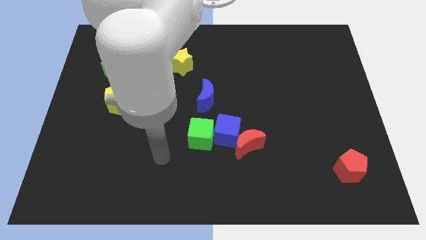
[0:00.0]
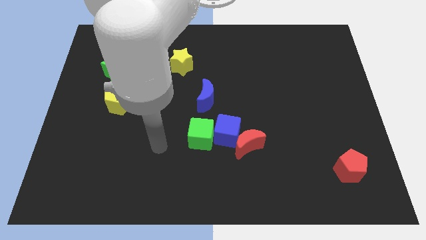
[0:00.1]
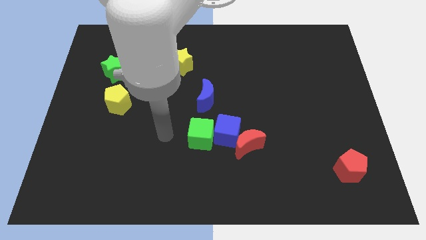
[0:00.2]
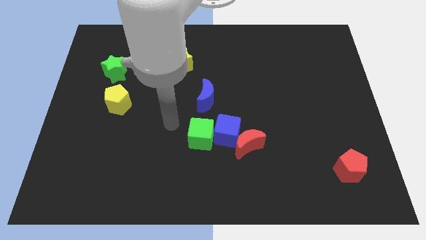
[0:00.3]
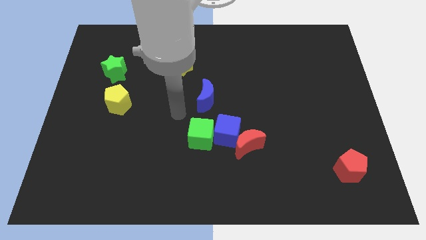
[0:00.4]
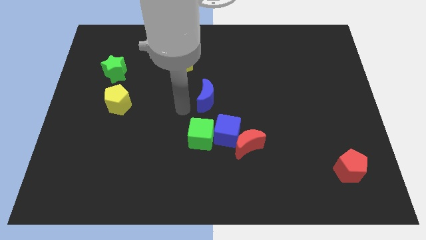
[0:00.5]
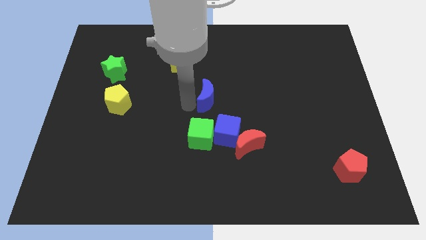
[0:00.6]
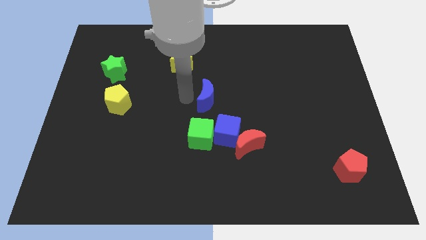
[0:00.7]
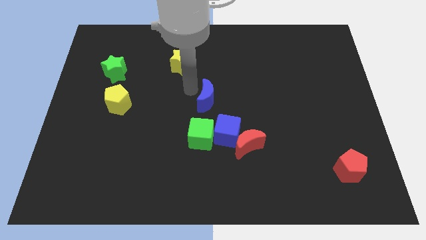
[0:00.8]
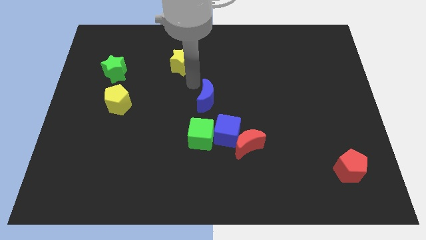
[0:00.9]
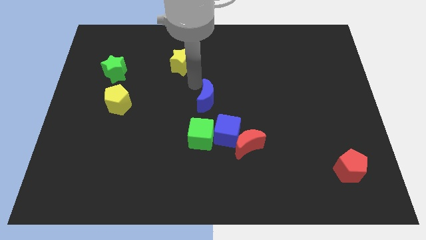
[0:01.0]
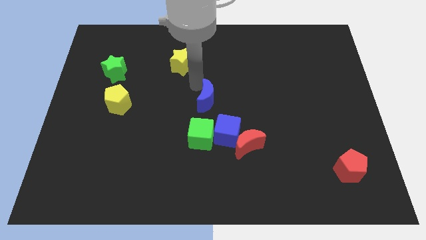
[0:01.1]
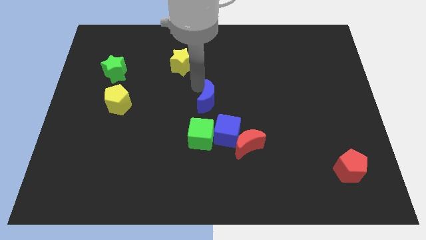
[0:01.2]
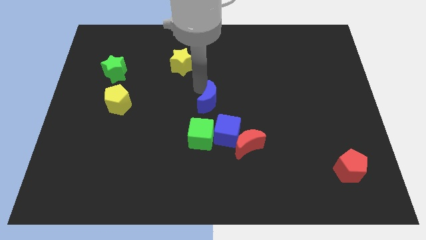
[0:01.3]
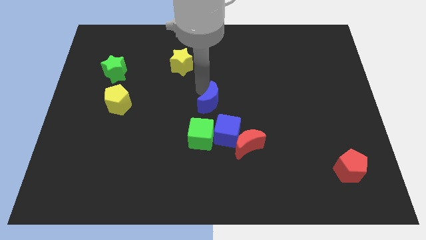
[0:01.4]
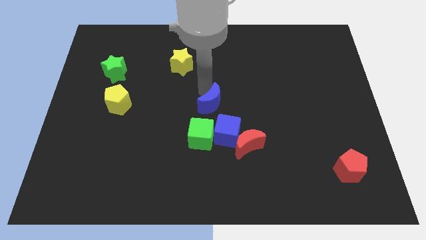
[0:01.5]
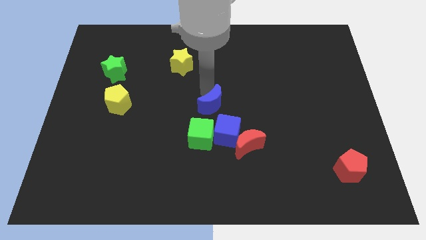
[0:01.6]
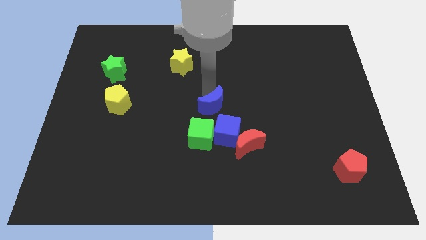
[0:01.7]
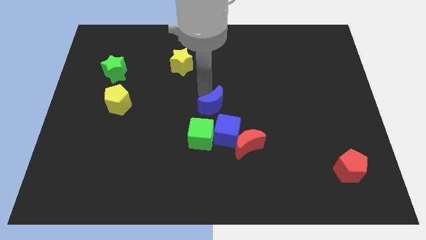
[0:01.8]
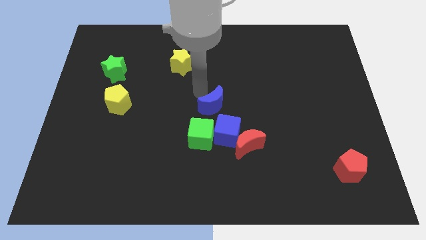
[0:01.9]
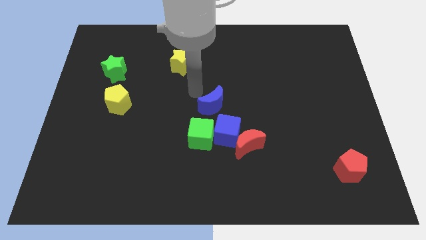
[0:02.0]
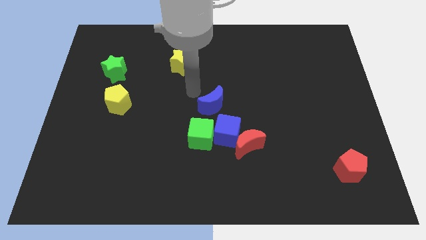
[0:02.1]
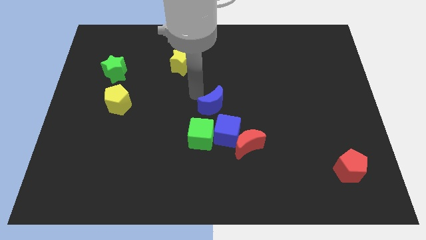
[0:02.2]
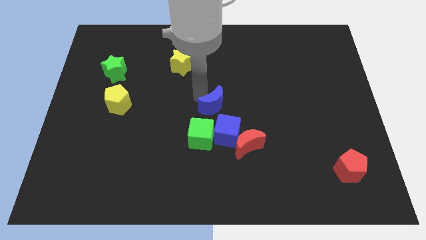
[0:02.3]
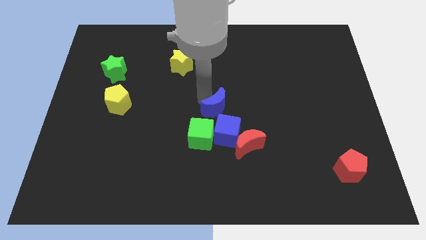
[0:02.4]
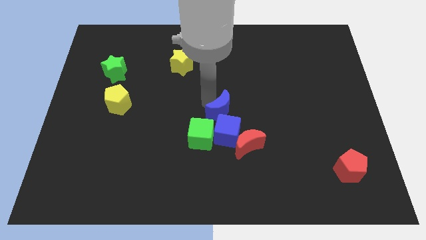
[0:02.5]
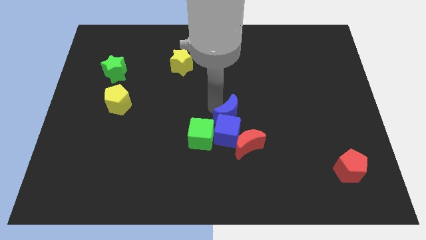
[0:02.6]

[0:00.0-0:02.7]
push the blue moon downwards and right somewhat

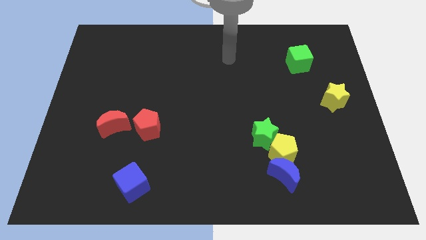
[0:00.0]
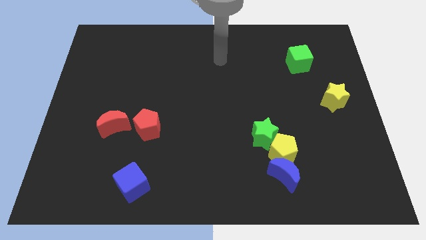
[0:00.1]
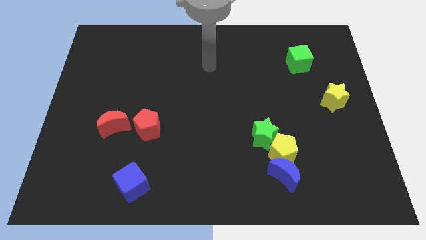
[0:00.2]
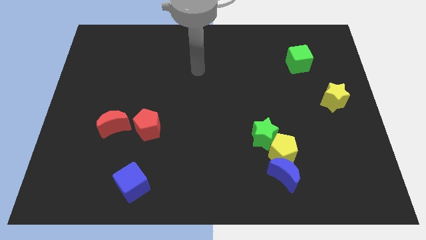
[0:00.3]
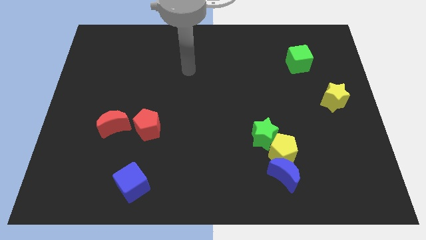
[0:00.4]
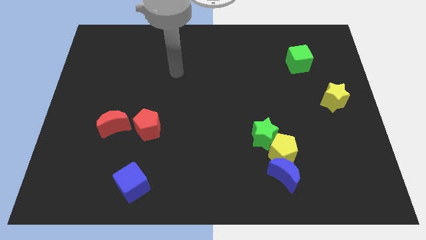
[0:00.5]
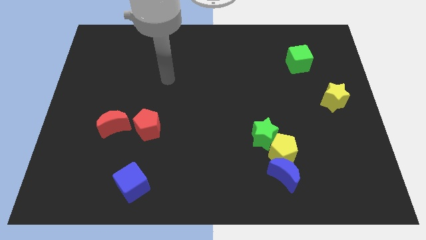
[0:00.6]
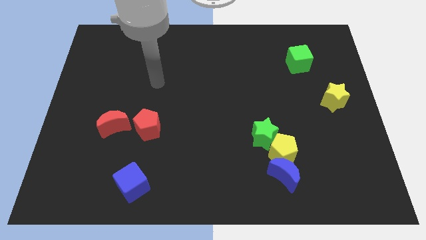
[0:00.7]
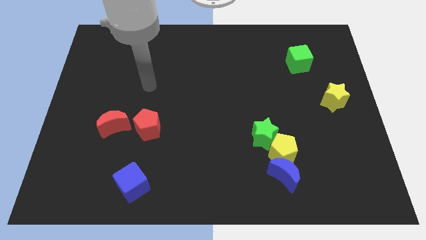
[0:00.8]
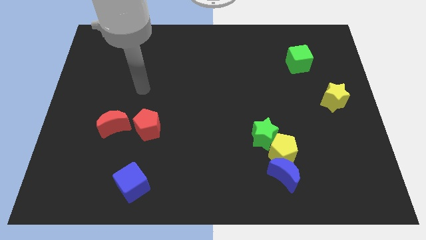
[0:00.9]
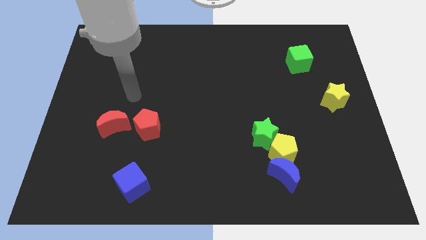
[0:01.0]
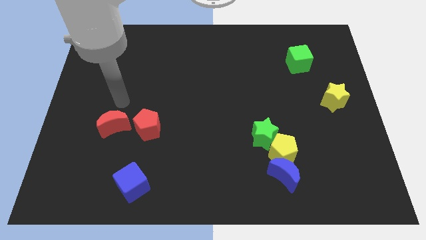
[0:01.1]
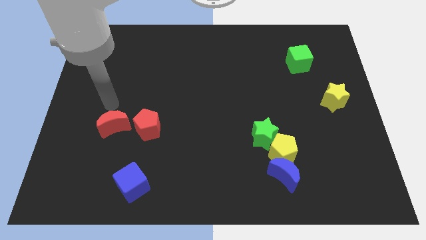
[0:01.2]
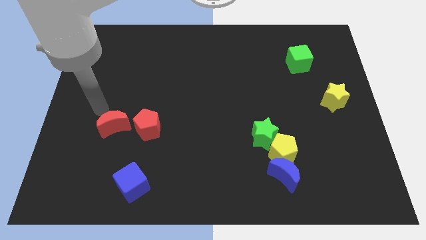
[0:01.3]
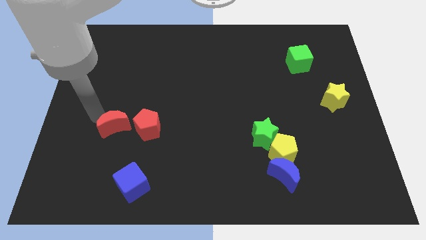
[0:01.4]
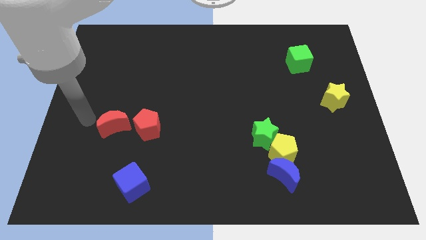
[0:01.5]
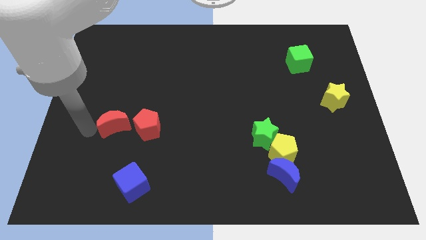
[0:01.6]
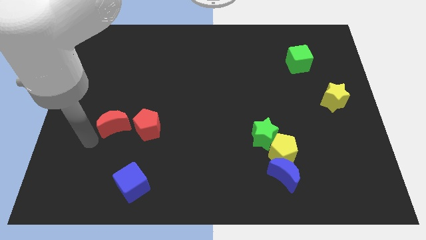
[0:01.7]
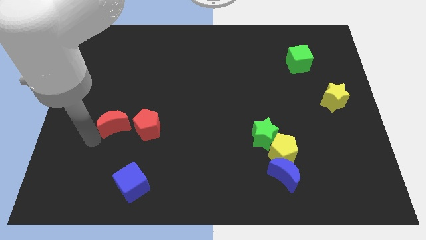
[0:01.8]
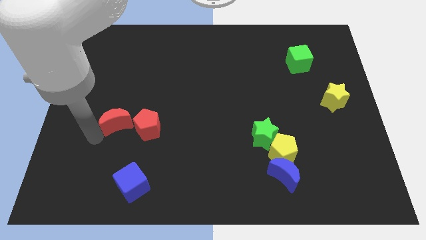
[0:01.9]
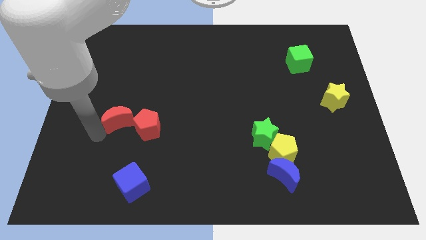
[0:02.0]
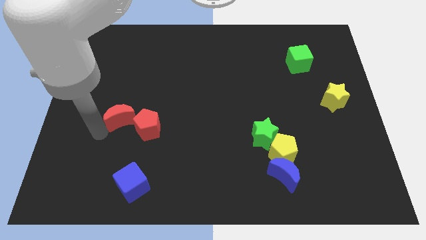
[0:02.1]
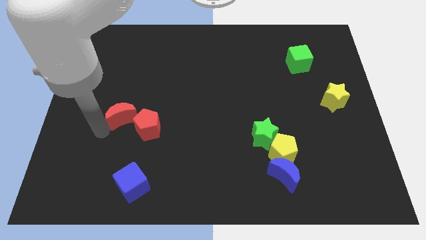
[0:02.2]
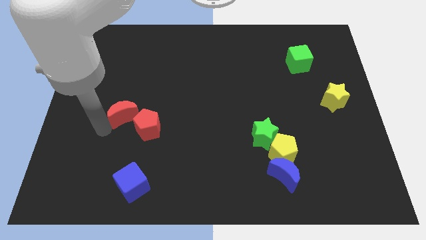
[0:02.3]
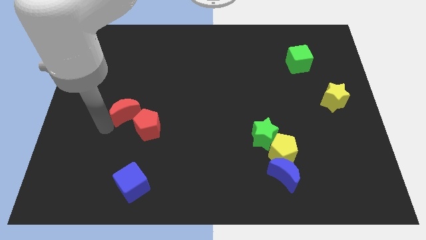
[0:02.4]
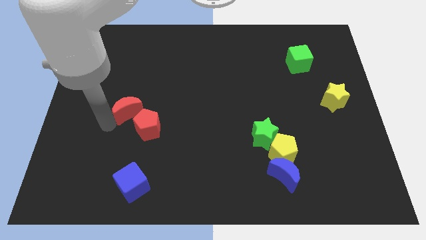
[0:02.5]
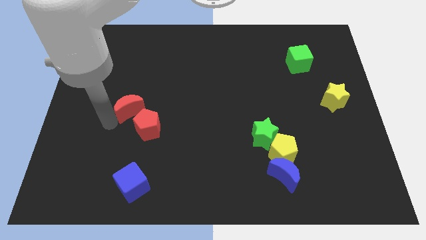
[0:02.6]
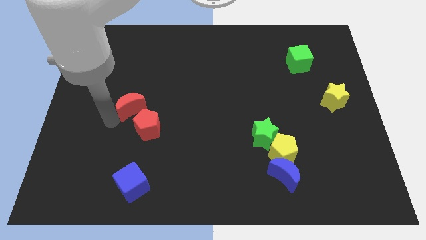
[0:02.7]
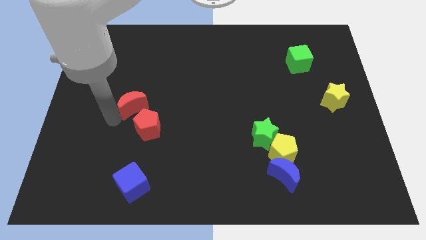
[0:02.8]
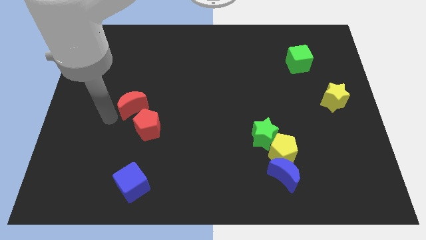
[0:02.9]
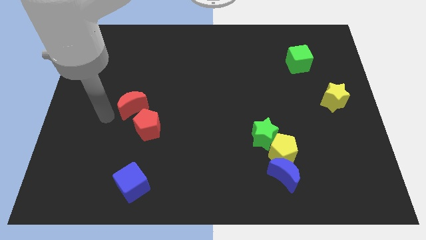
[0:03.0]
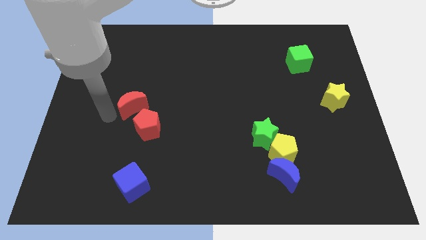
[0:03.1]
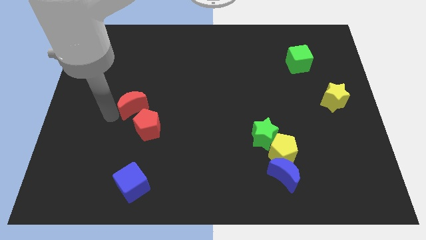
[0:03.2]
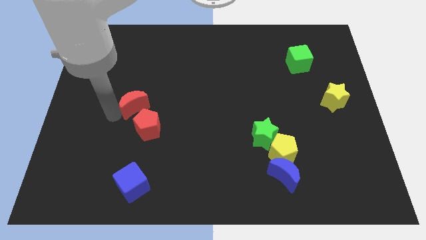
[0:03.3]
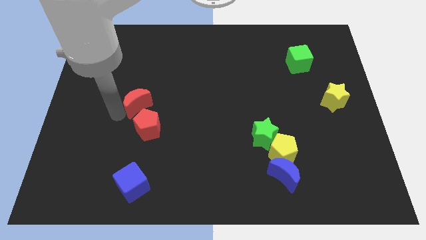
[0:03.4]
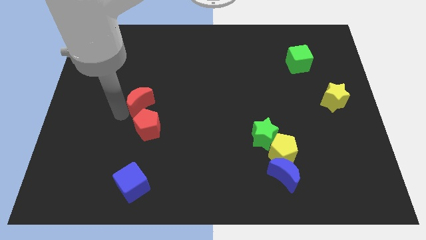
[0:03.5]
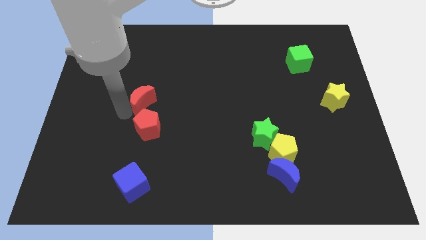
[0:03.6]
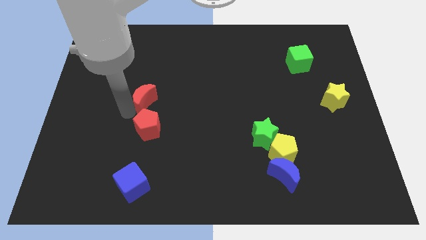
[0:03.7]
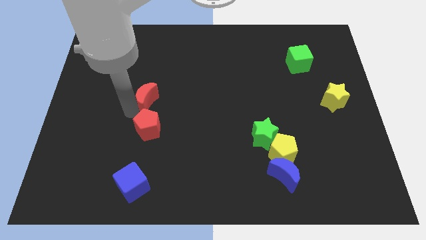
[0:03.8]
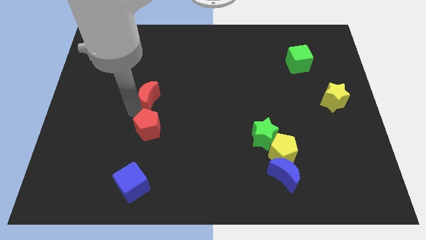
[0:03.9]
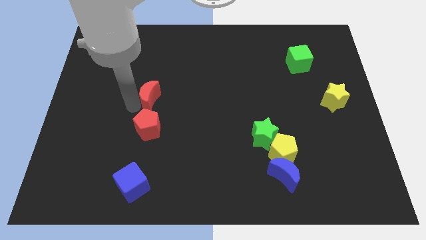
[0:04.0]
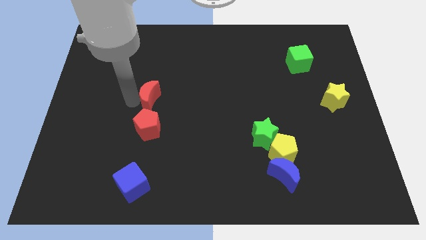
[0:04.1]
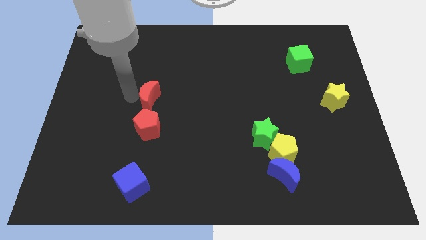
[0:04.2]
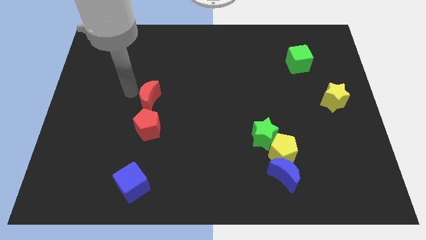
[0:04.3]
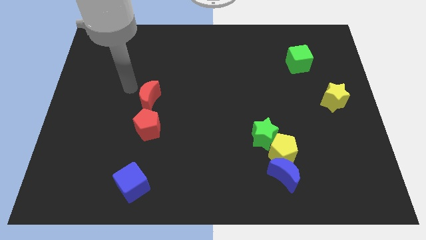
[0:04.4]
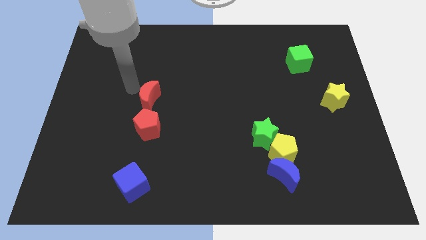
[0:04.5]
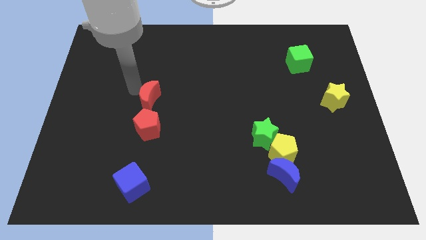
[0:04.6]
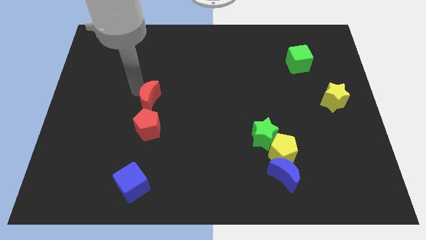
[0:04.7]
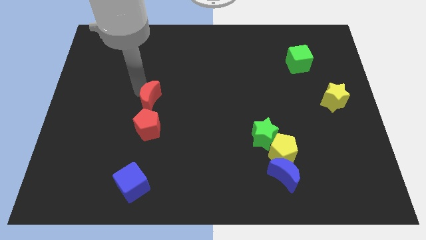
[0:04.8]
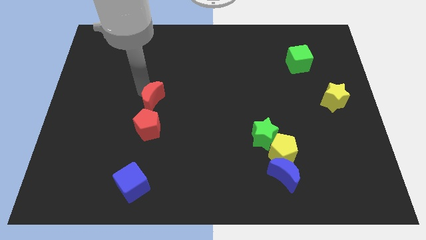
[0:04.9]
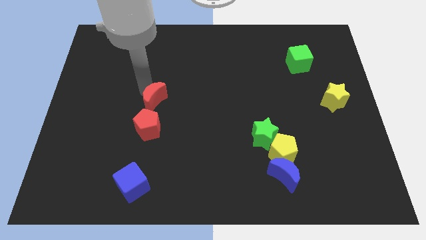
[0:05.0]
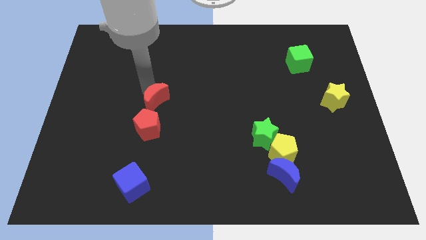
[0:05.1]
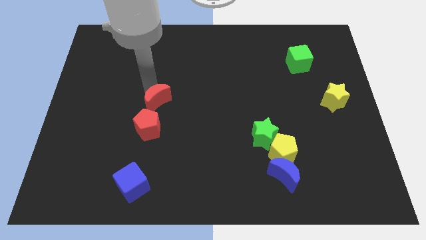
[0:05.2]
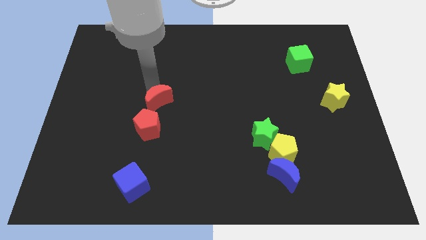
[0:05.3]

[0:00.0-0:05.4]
move the red moon right a bit
